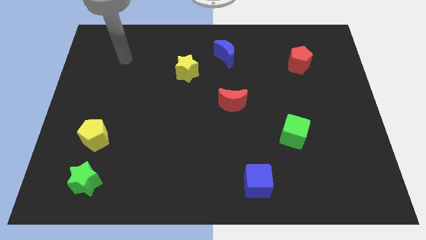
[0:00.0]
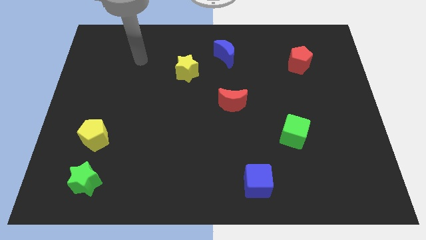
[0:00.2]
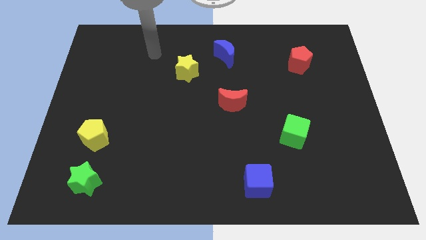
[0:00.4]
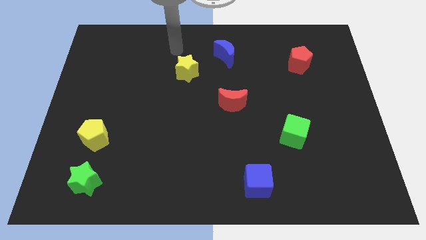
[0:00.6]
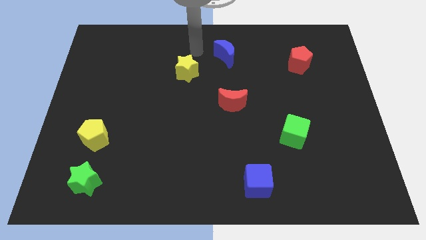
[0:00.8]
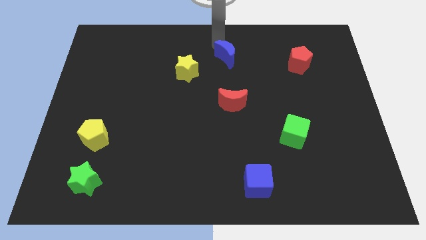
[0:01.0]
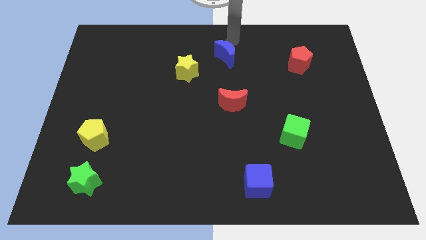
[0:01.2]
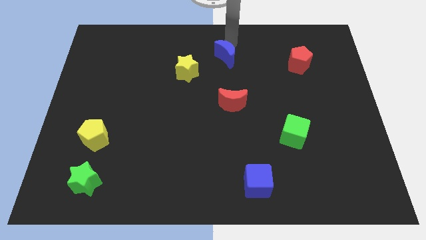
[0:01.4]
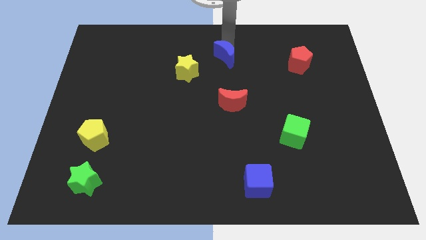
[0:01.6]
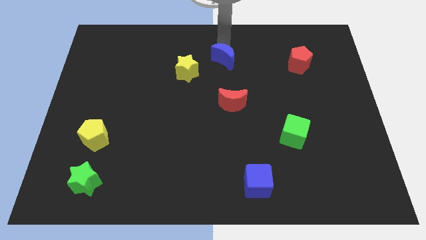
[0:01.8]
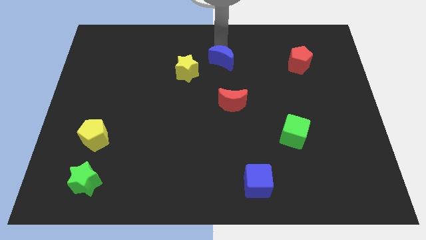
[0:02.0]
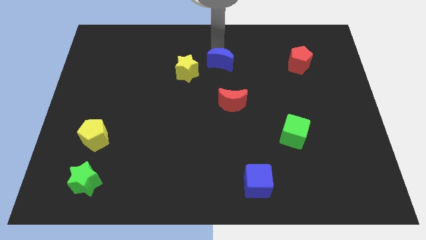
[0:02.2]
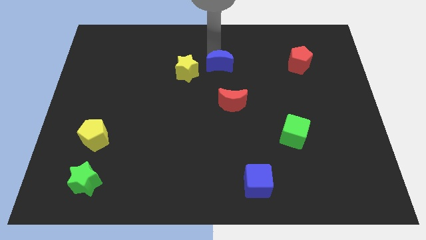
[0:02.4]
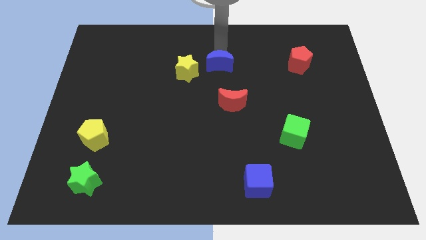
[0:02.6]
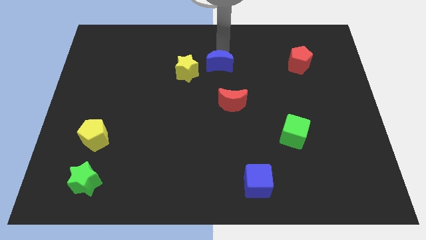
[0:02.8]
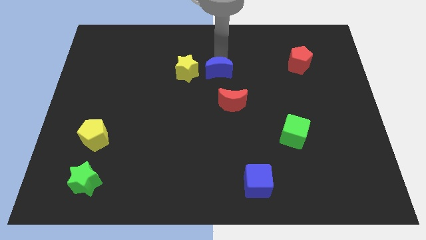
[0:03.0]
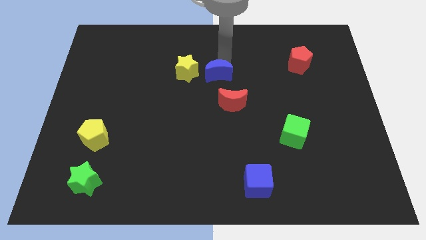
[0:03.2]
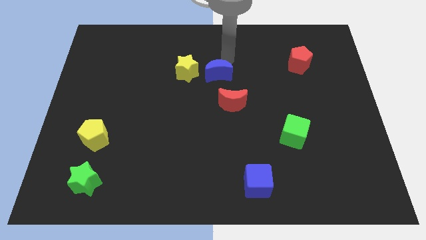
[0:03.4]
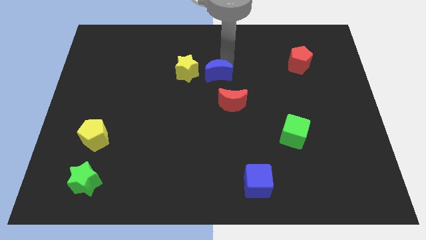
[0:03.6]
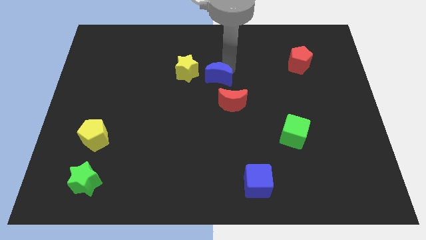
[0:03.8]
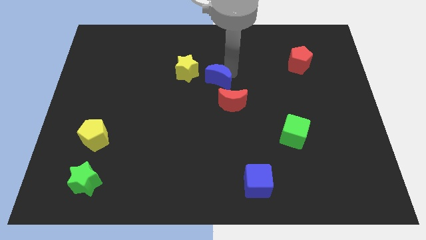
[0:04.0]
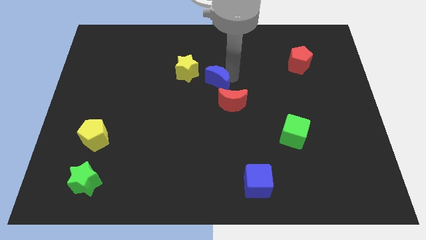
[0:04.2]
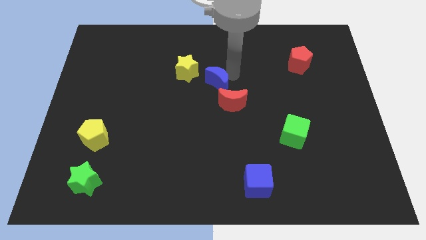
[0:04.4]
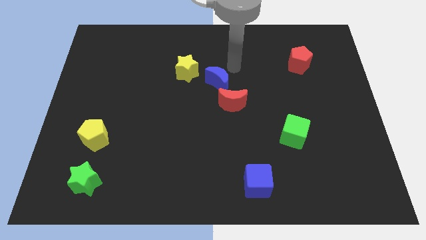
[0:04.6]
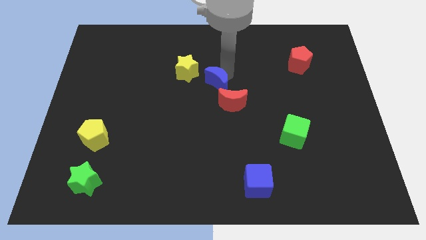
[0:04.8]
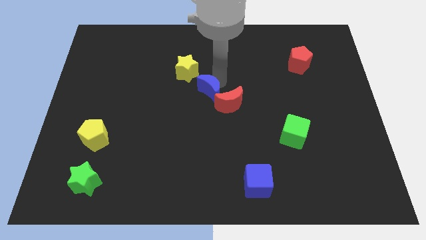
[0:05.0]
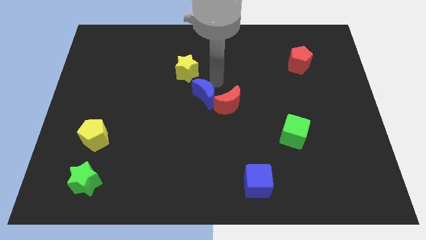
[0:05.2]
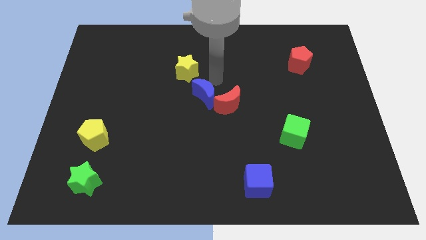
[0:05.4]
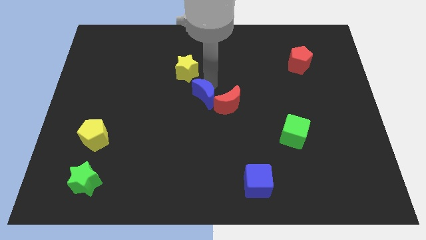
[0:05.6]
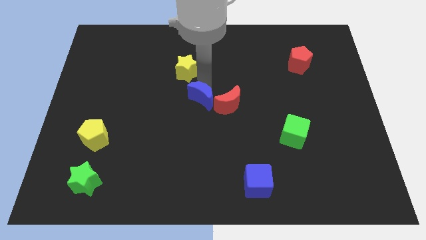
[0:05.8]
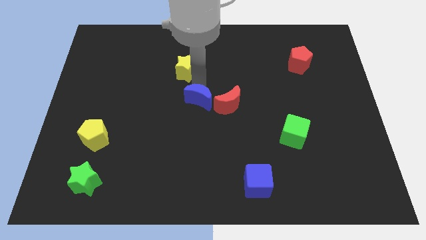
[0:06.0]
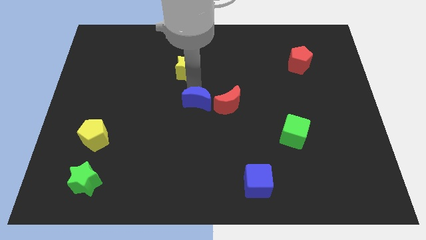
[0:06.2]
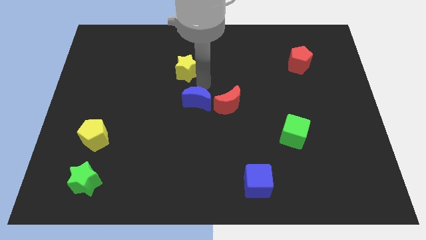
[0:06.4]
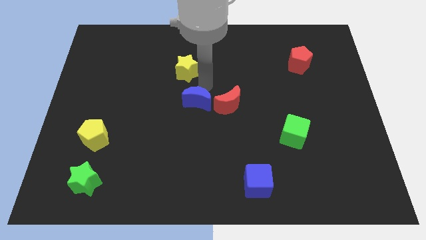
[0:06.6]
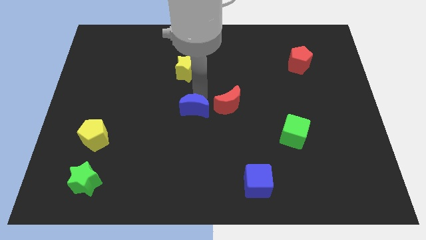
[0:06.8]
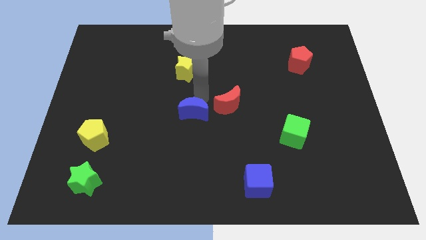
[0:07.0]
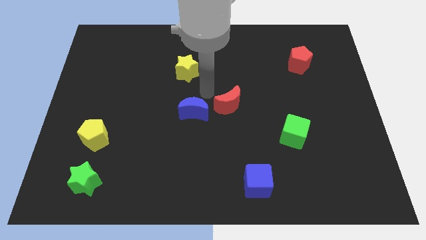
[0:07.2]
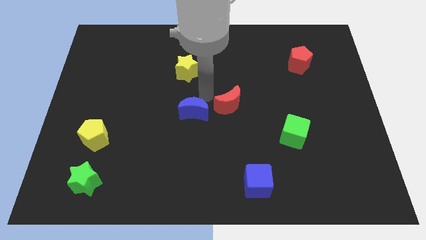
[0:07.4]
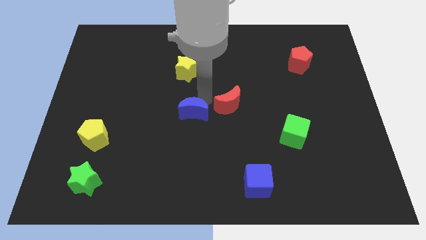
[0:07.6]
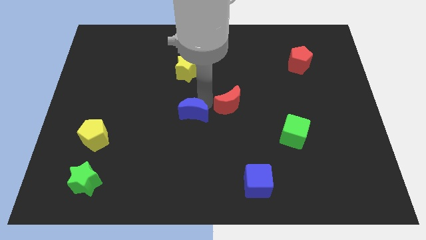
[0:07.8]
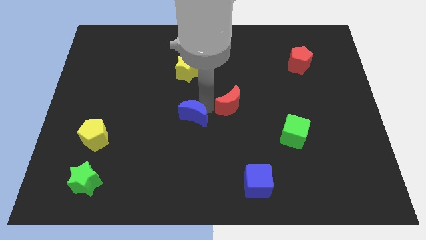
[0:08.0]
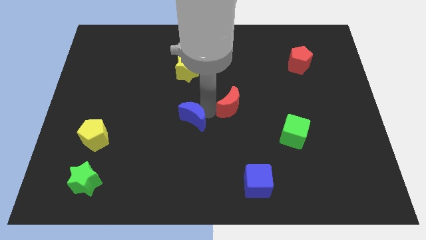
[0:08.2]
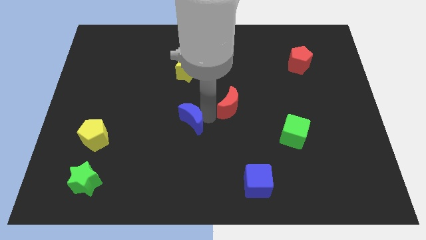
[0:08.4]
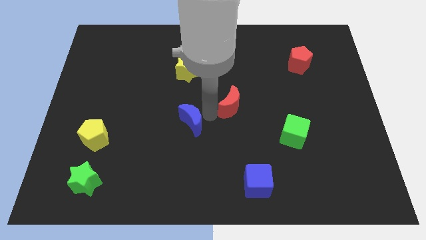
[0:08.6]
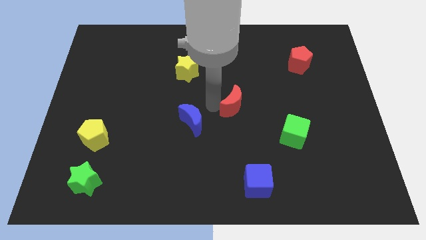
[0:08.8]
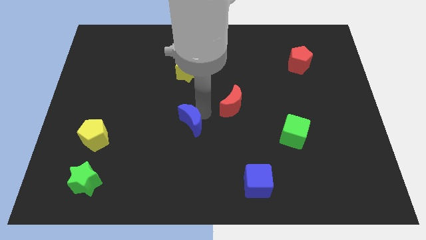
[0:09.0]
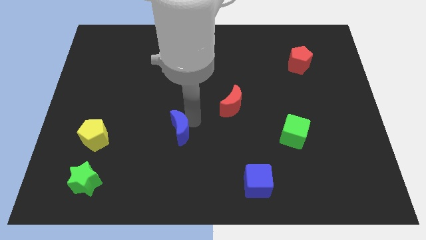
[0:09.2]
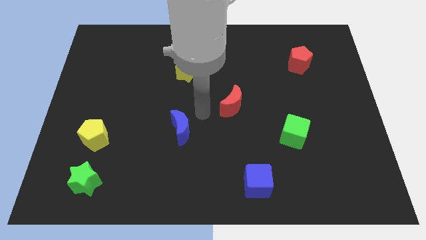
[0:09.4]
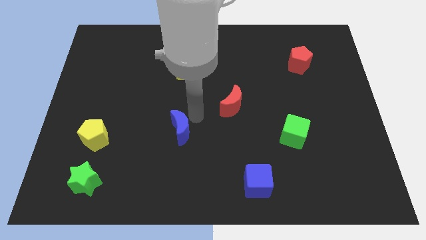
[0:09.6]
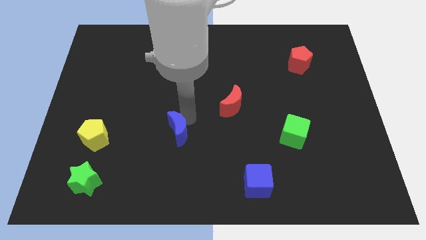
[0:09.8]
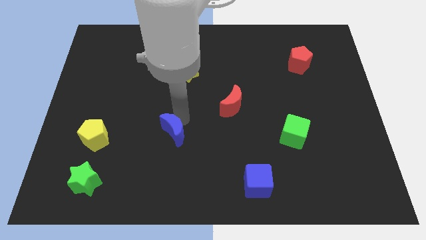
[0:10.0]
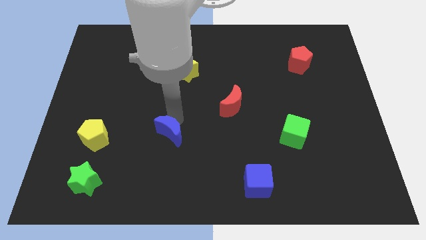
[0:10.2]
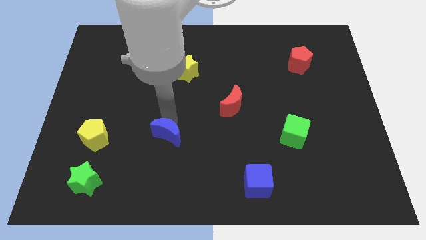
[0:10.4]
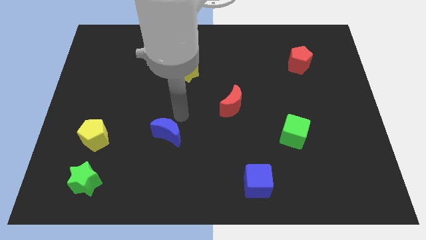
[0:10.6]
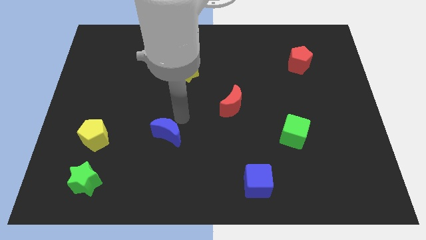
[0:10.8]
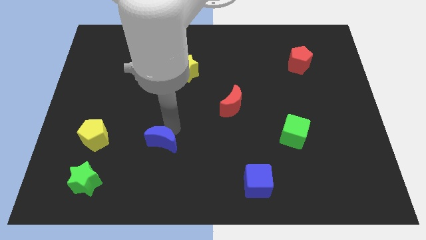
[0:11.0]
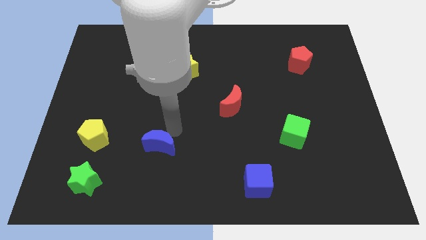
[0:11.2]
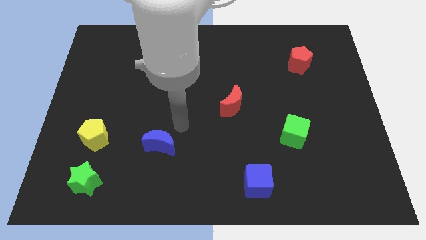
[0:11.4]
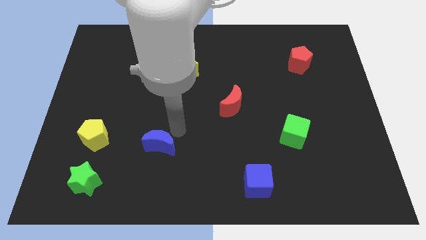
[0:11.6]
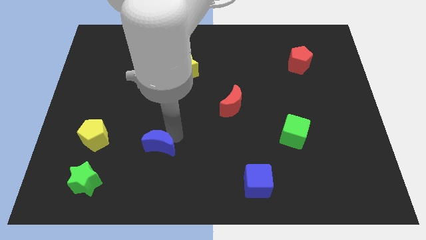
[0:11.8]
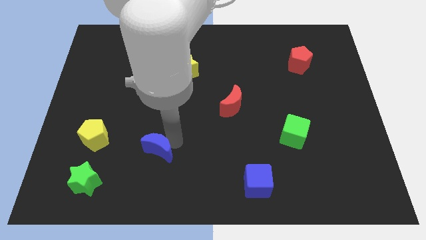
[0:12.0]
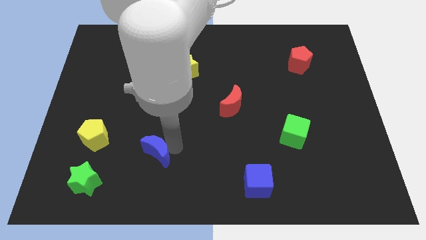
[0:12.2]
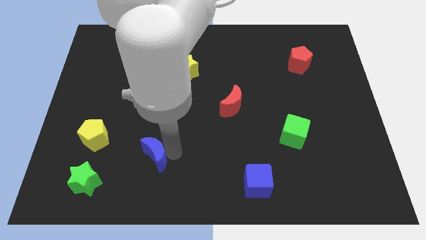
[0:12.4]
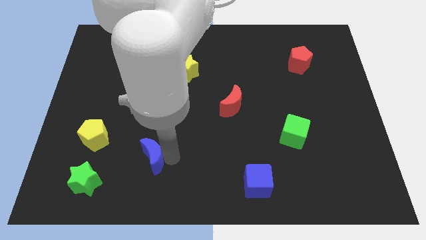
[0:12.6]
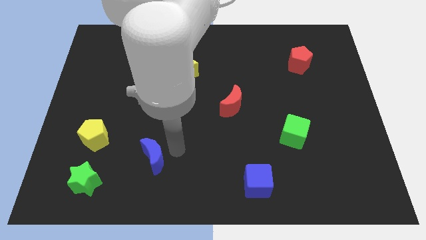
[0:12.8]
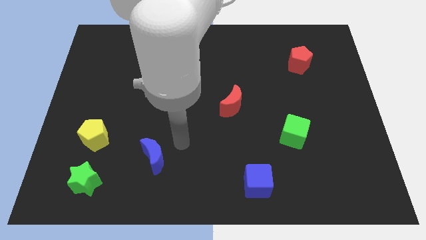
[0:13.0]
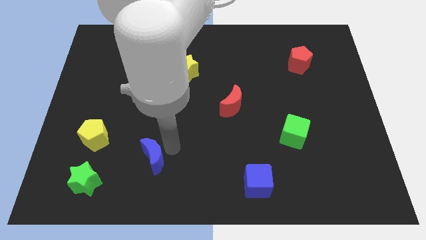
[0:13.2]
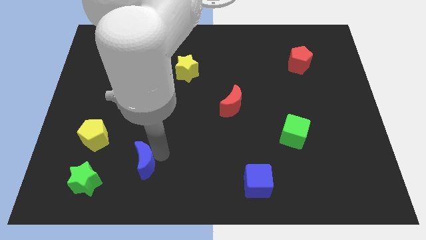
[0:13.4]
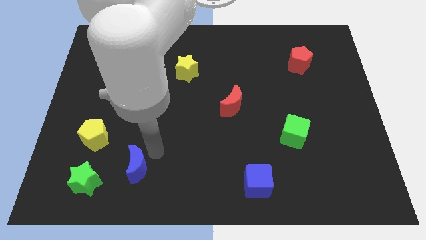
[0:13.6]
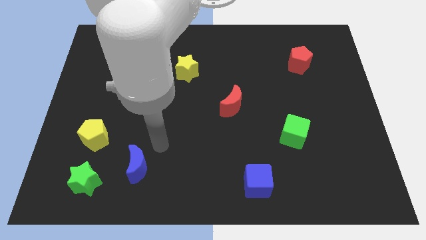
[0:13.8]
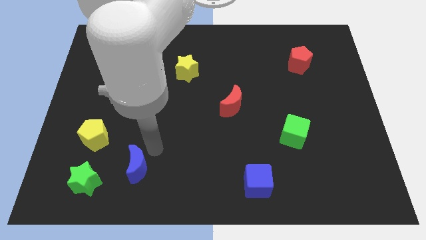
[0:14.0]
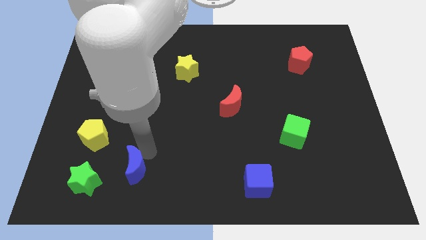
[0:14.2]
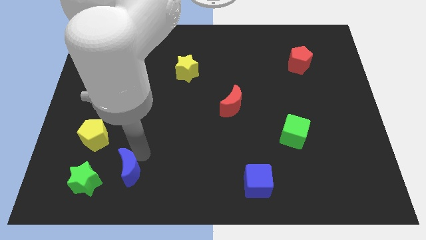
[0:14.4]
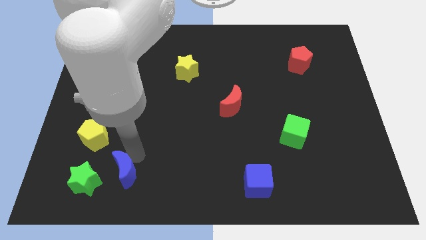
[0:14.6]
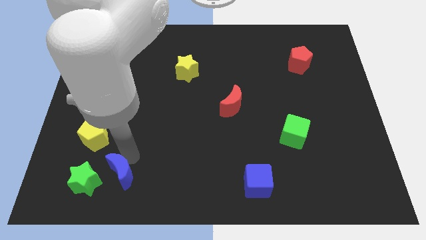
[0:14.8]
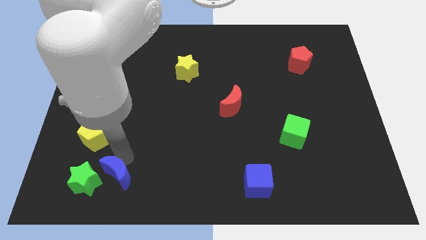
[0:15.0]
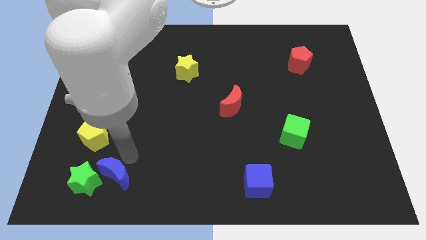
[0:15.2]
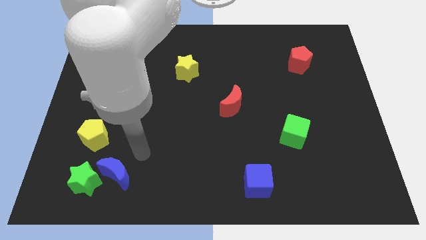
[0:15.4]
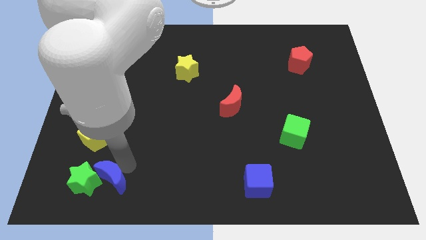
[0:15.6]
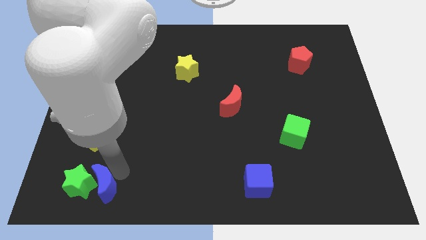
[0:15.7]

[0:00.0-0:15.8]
move the blue moon to the bottom of the yellow pentagon
